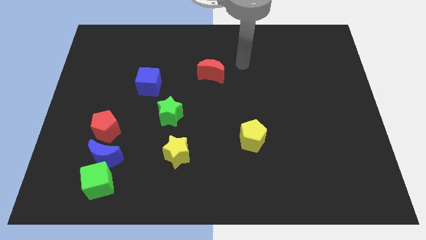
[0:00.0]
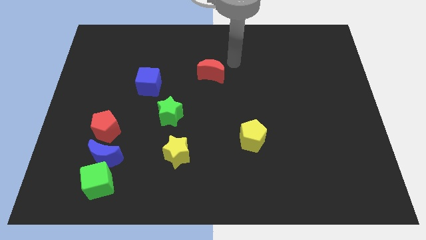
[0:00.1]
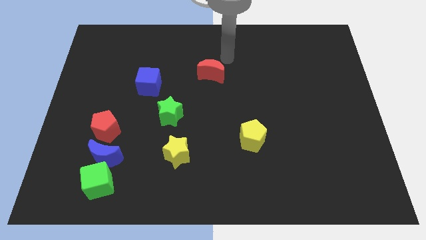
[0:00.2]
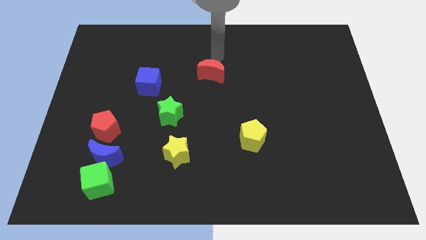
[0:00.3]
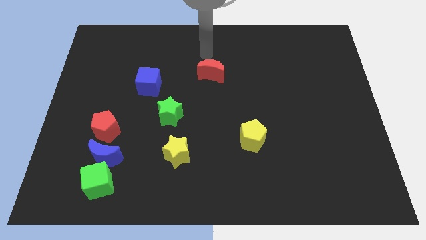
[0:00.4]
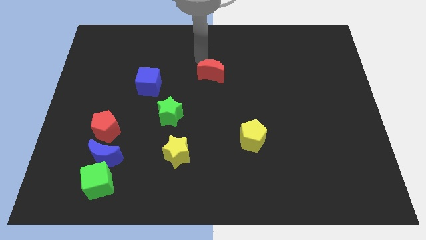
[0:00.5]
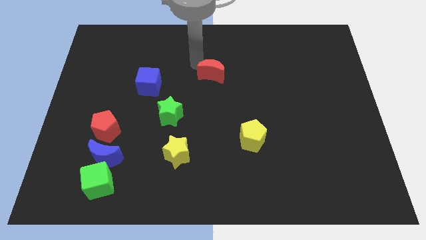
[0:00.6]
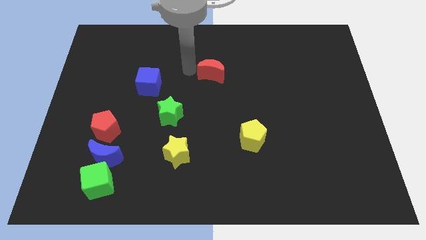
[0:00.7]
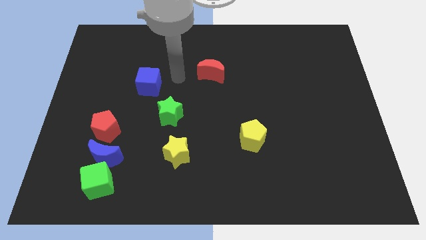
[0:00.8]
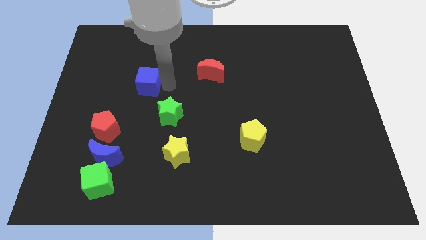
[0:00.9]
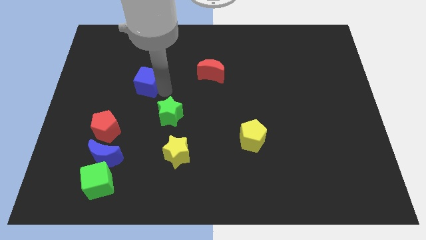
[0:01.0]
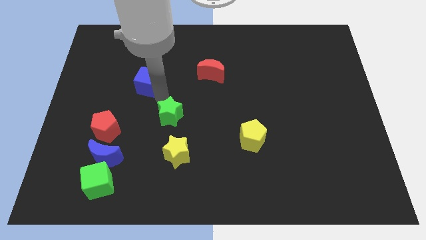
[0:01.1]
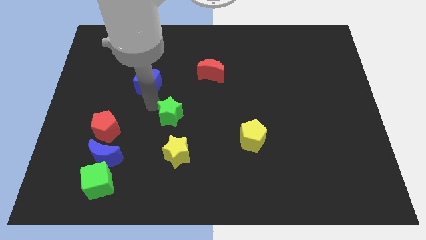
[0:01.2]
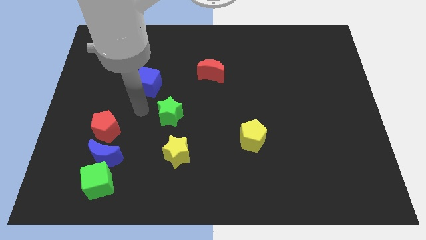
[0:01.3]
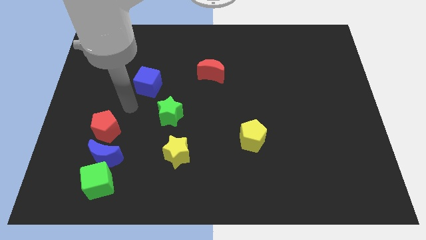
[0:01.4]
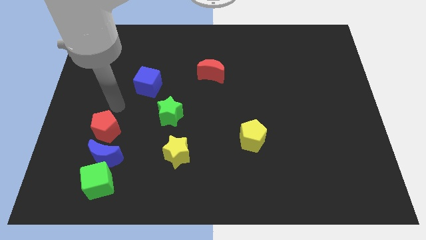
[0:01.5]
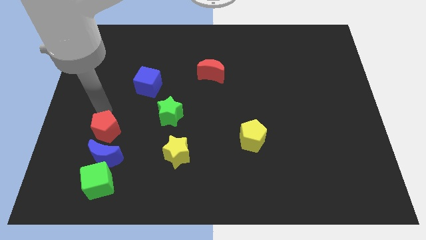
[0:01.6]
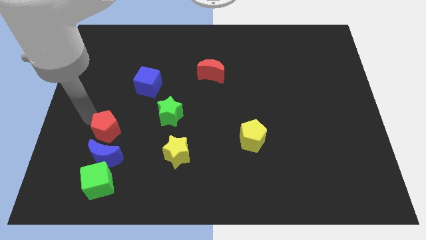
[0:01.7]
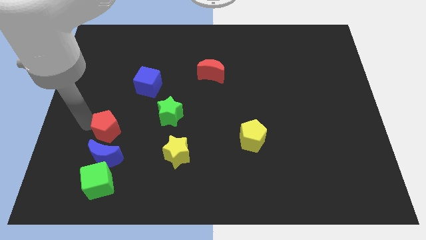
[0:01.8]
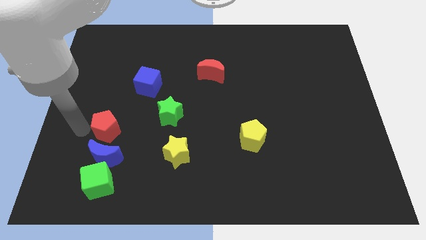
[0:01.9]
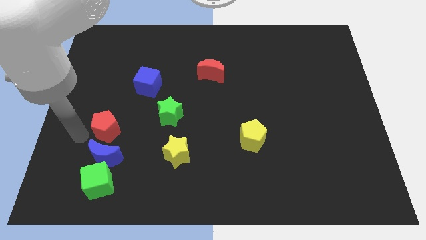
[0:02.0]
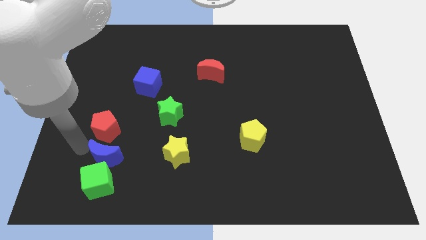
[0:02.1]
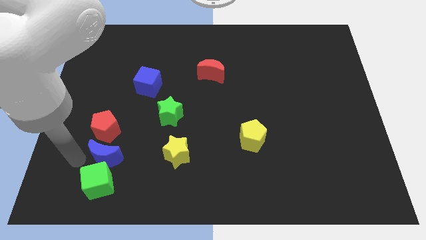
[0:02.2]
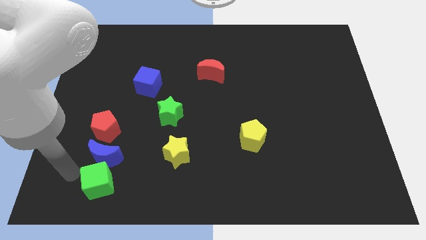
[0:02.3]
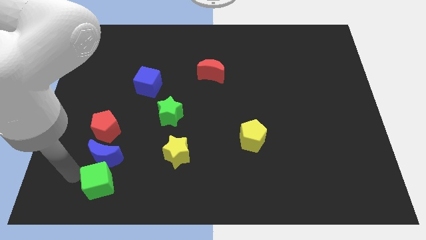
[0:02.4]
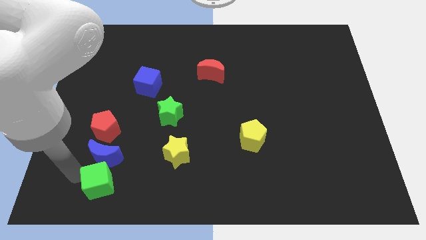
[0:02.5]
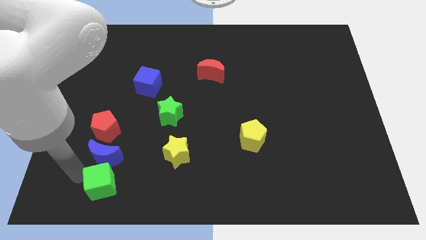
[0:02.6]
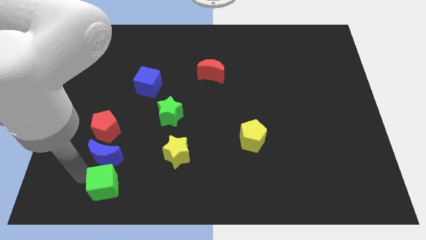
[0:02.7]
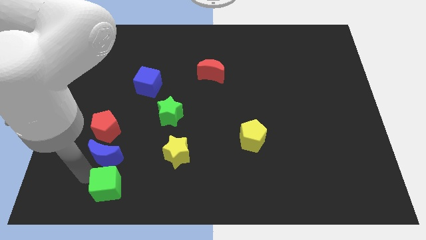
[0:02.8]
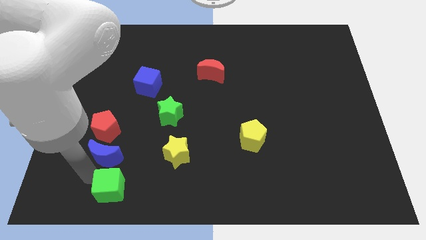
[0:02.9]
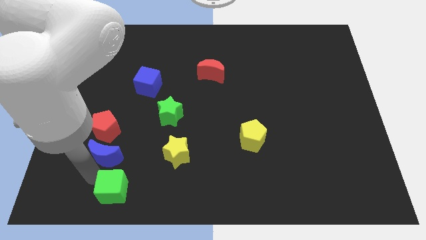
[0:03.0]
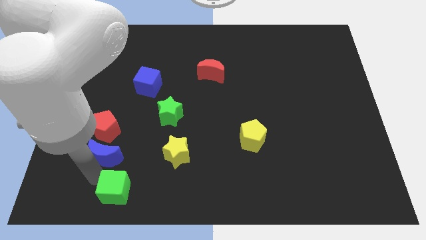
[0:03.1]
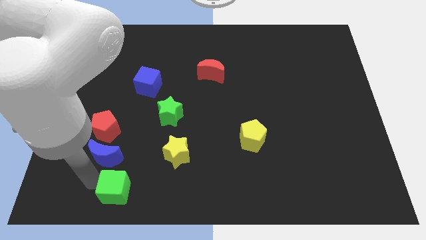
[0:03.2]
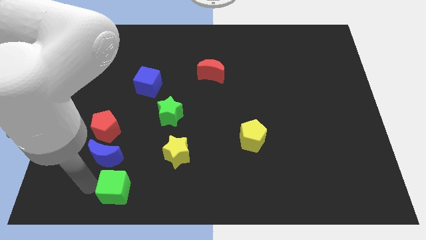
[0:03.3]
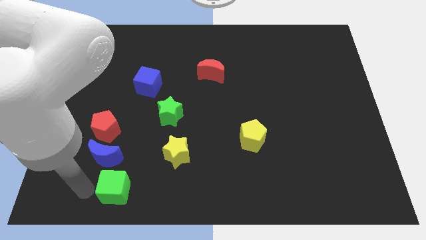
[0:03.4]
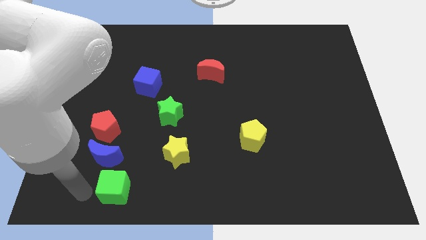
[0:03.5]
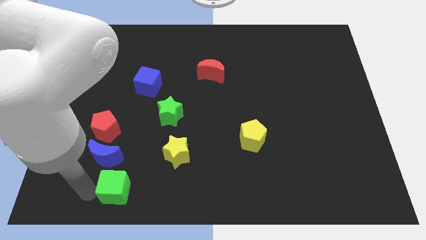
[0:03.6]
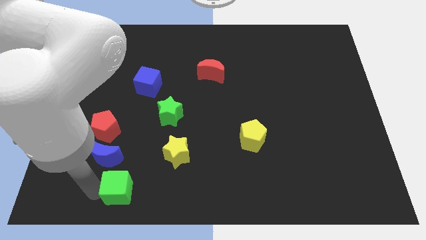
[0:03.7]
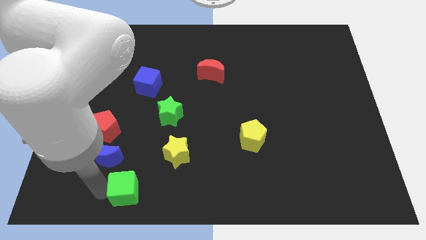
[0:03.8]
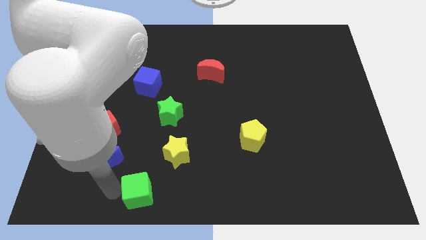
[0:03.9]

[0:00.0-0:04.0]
move the green cube right a little

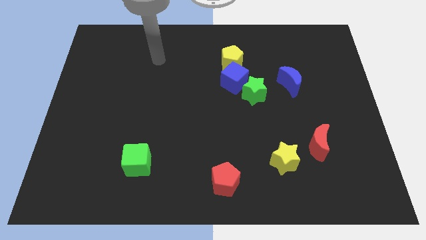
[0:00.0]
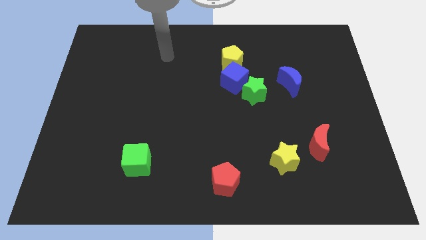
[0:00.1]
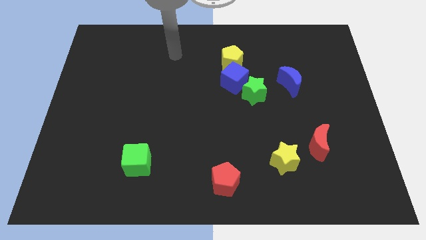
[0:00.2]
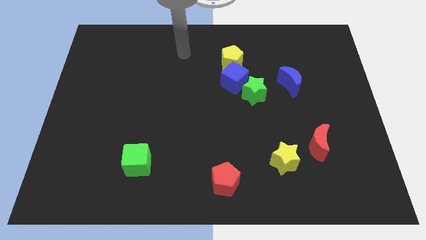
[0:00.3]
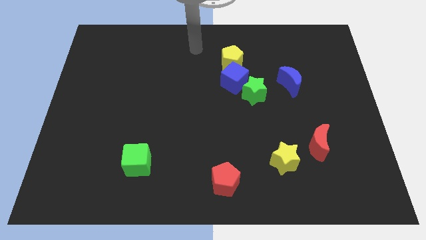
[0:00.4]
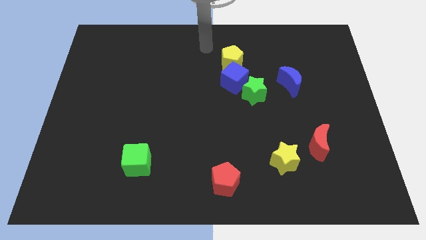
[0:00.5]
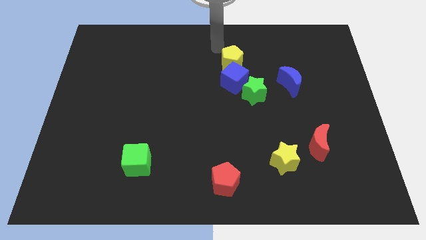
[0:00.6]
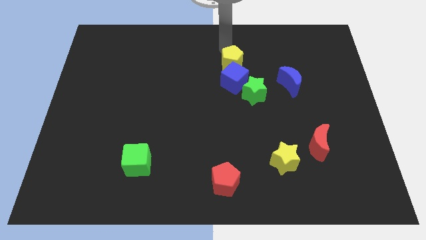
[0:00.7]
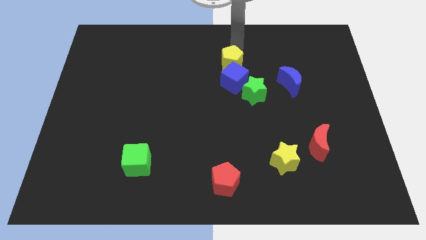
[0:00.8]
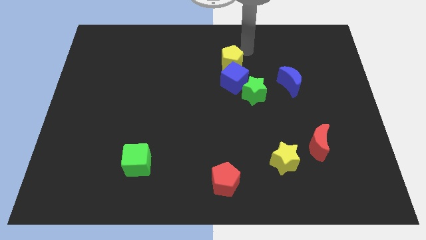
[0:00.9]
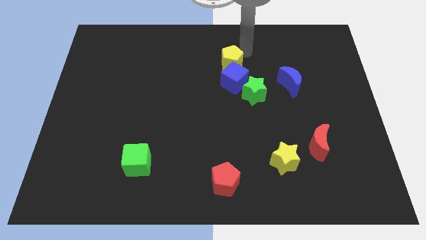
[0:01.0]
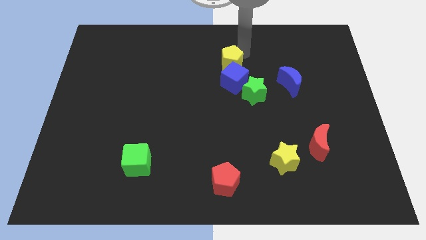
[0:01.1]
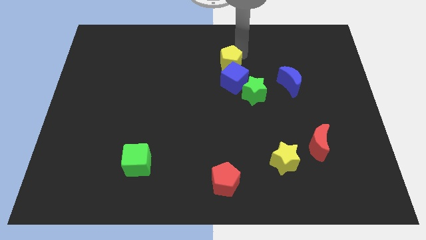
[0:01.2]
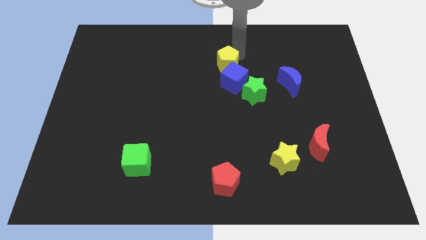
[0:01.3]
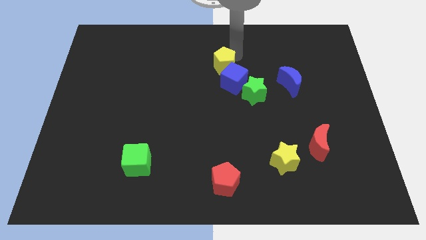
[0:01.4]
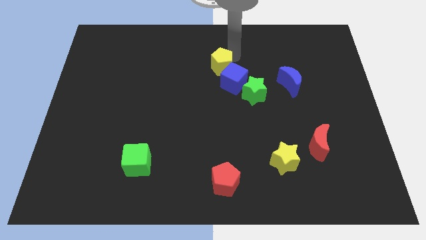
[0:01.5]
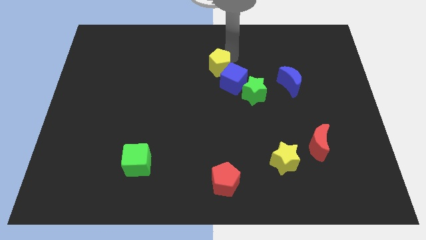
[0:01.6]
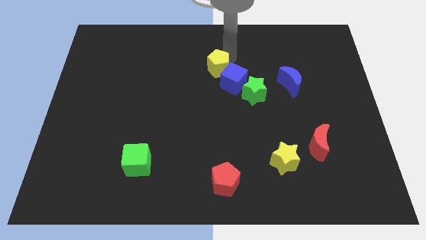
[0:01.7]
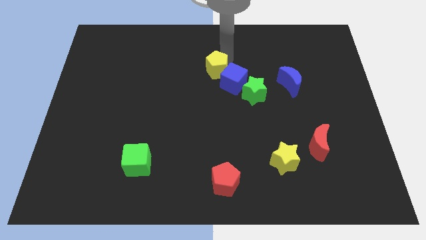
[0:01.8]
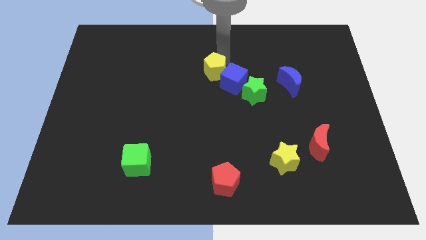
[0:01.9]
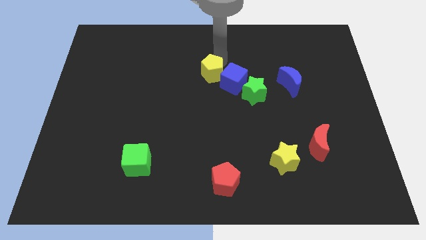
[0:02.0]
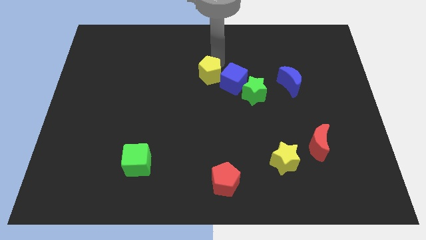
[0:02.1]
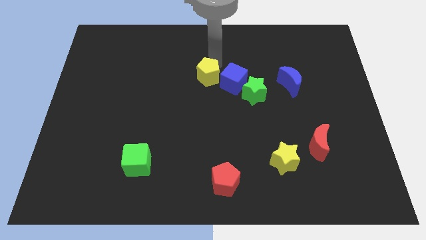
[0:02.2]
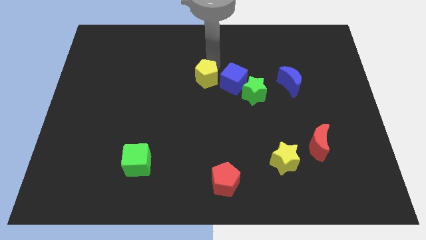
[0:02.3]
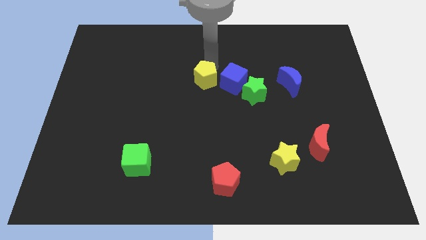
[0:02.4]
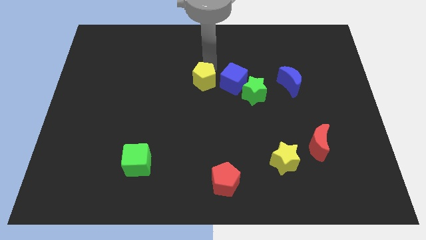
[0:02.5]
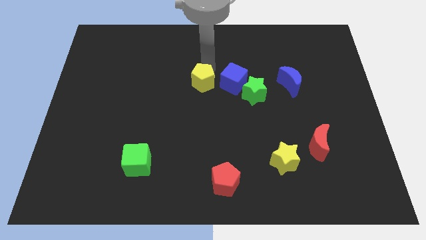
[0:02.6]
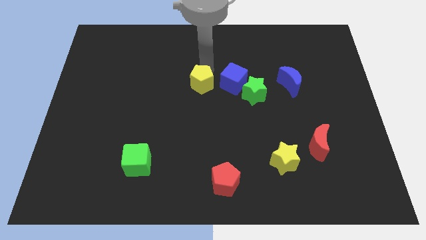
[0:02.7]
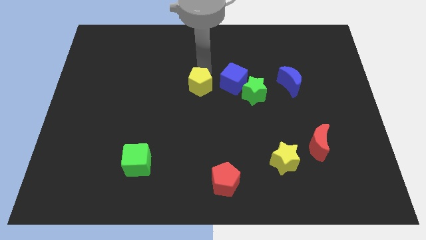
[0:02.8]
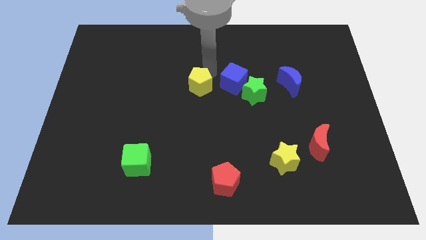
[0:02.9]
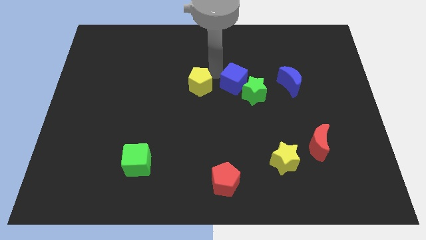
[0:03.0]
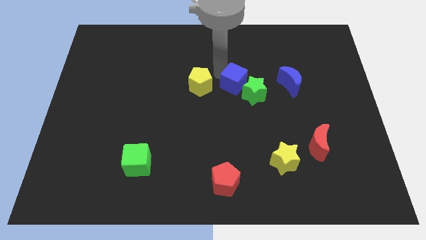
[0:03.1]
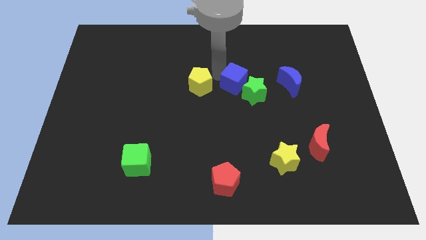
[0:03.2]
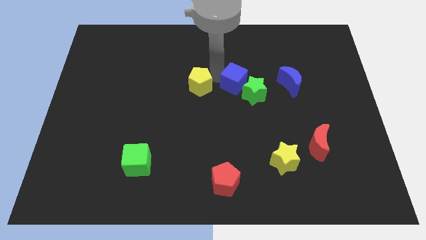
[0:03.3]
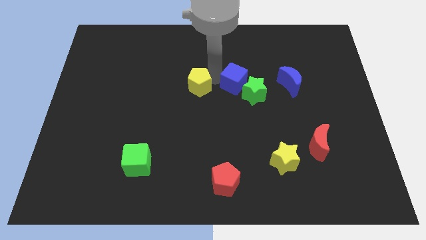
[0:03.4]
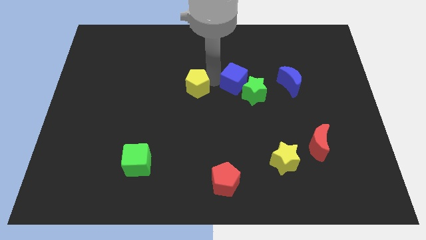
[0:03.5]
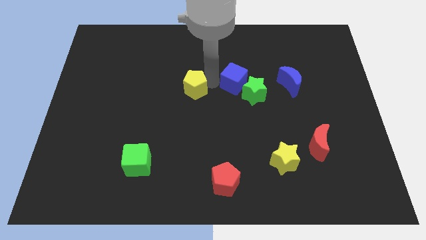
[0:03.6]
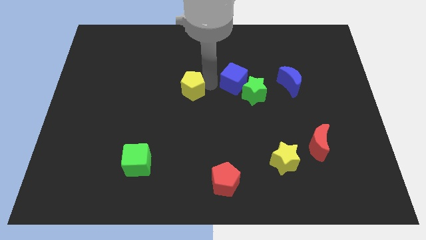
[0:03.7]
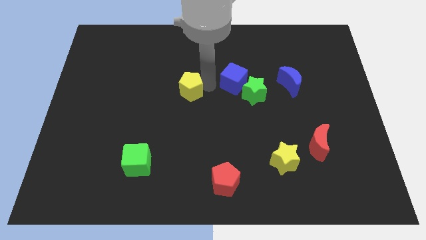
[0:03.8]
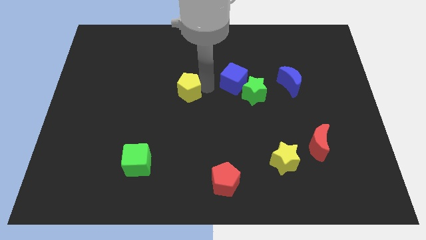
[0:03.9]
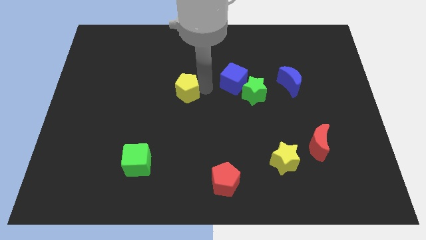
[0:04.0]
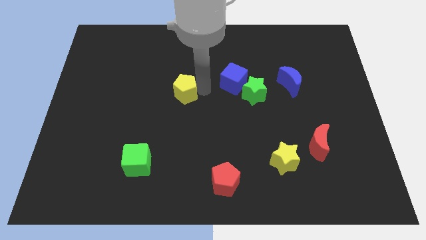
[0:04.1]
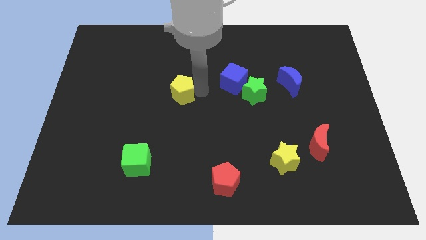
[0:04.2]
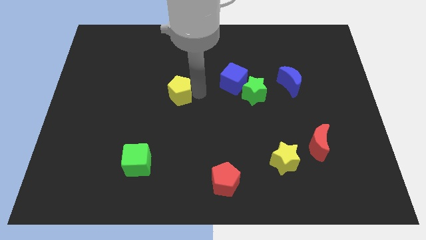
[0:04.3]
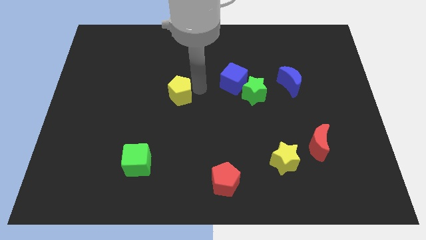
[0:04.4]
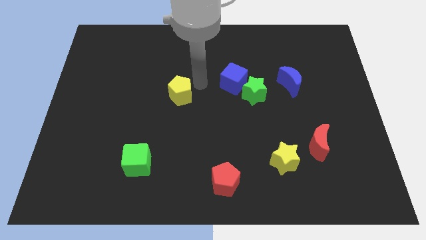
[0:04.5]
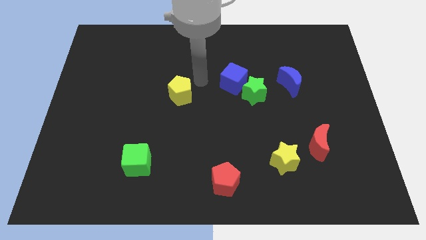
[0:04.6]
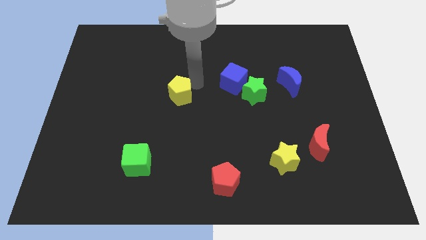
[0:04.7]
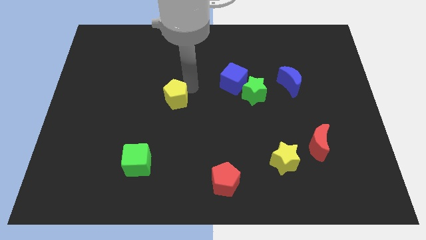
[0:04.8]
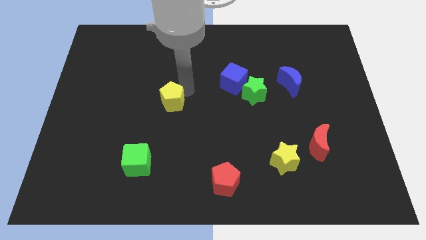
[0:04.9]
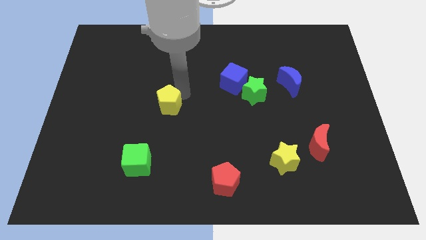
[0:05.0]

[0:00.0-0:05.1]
move the yellow pentagon diagonally down and to the left
